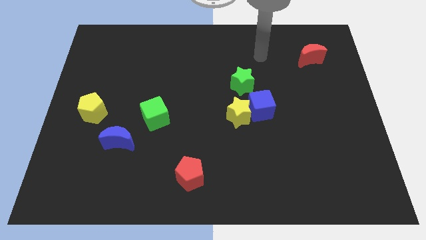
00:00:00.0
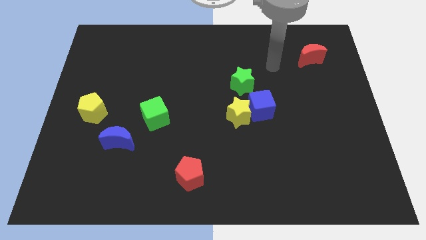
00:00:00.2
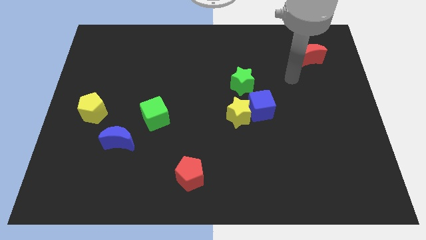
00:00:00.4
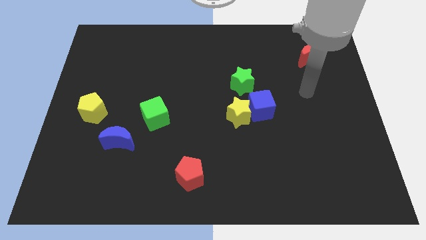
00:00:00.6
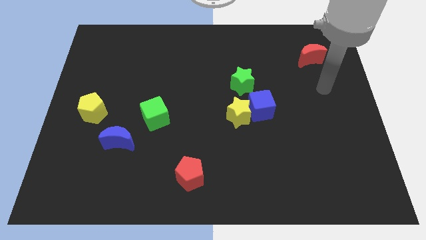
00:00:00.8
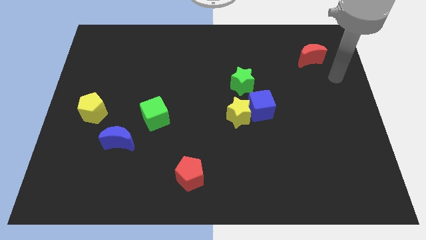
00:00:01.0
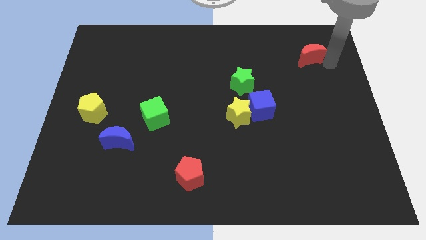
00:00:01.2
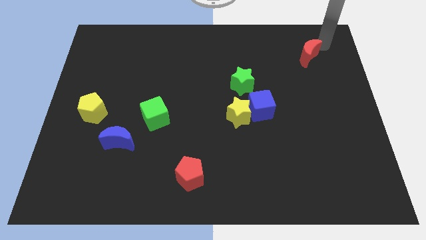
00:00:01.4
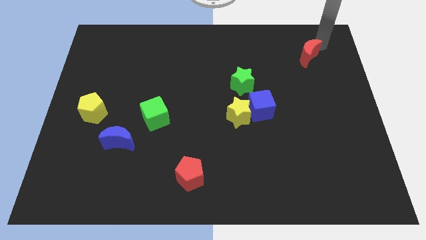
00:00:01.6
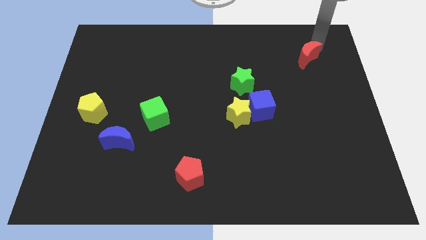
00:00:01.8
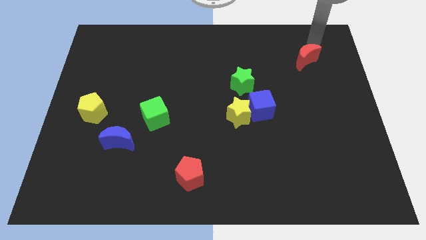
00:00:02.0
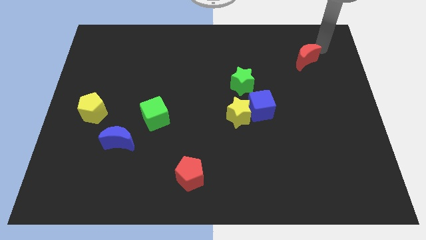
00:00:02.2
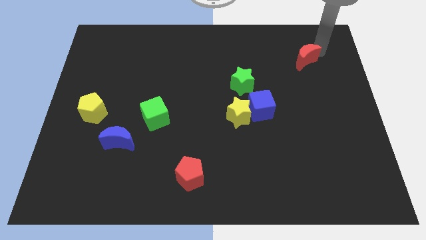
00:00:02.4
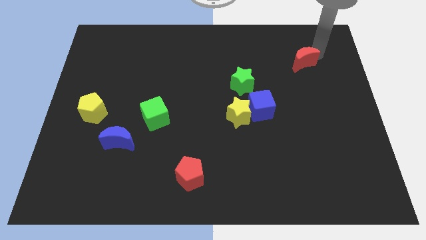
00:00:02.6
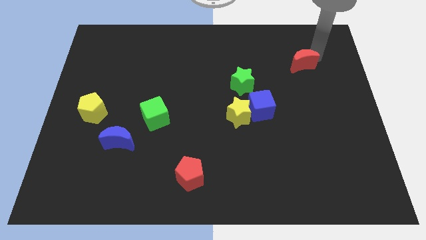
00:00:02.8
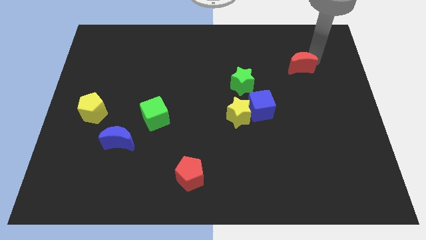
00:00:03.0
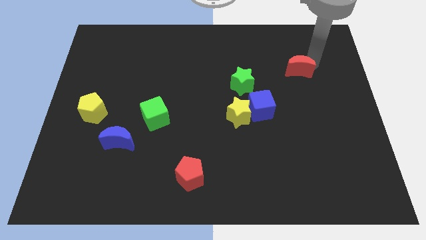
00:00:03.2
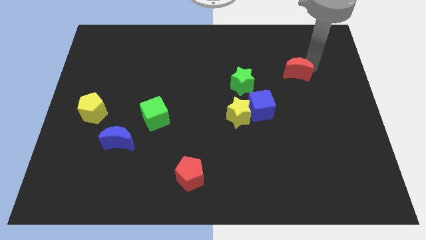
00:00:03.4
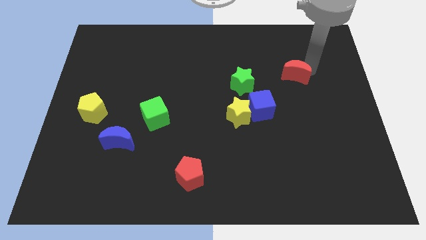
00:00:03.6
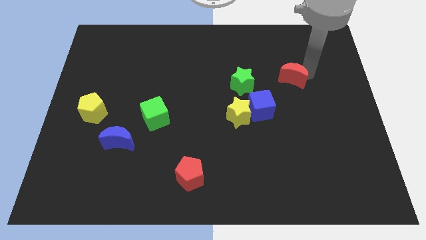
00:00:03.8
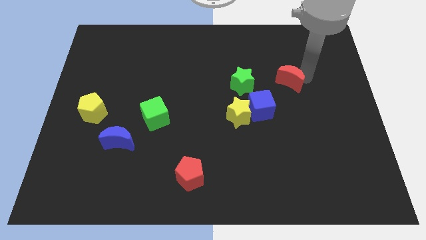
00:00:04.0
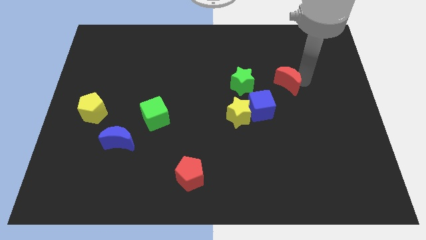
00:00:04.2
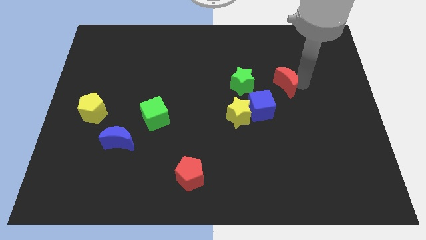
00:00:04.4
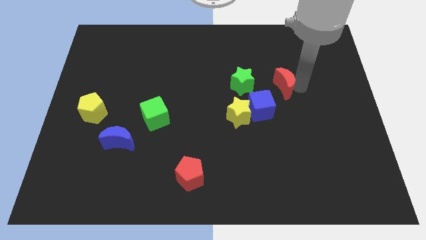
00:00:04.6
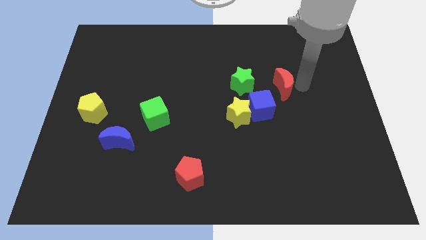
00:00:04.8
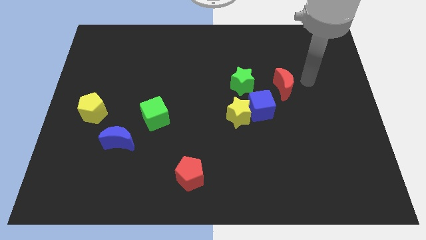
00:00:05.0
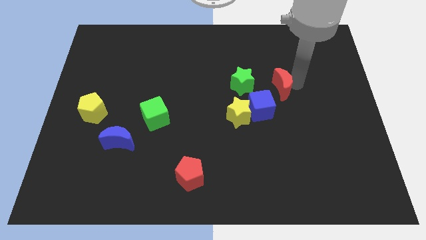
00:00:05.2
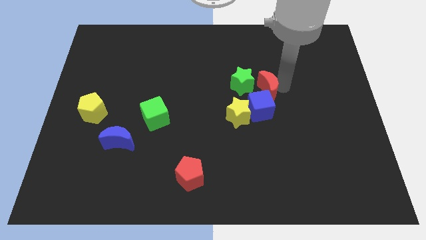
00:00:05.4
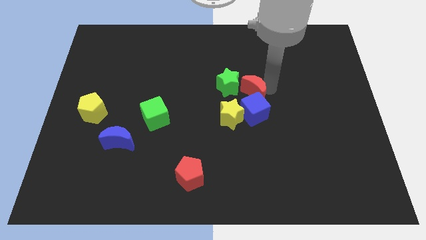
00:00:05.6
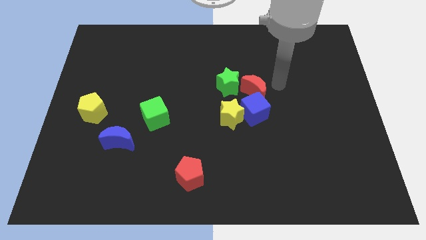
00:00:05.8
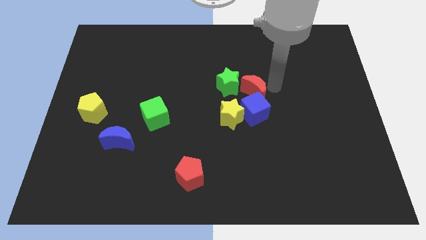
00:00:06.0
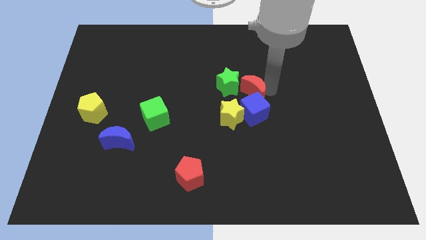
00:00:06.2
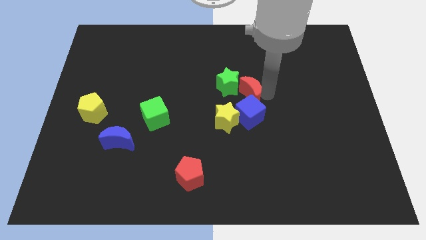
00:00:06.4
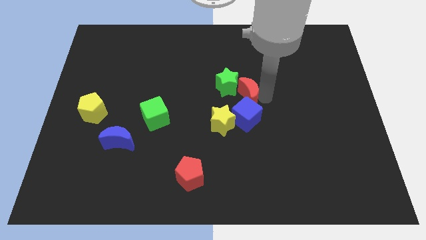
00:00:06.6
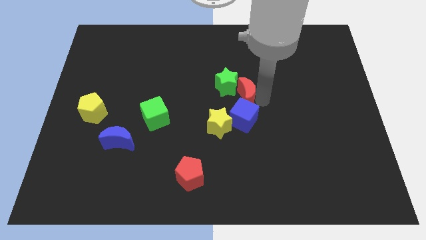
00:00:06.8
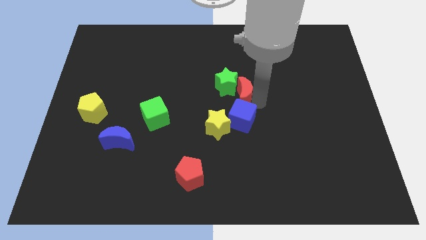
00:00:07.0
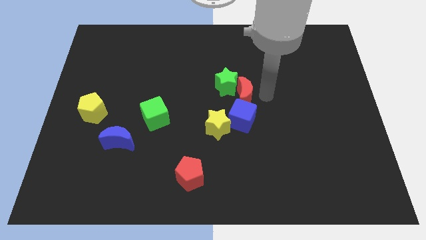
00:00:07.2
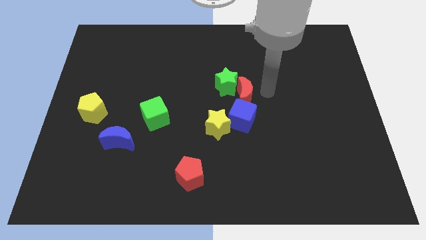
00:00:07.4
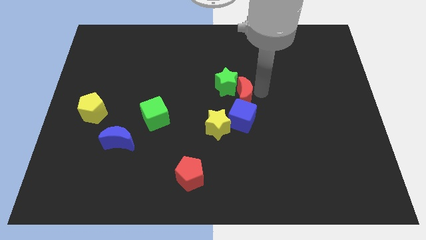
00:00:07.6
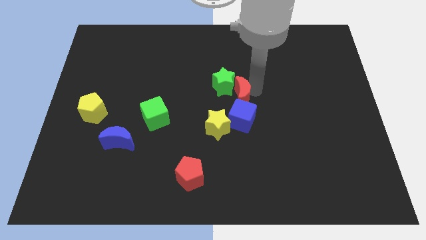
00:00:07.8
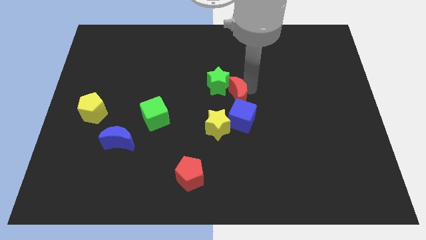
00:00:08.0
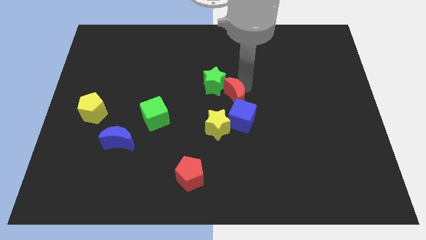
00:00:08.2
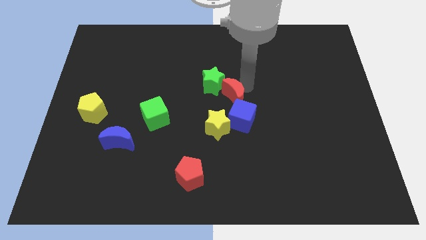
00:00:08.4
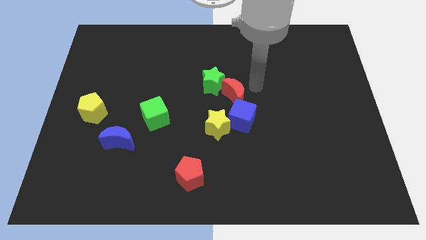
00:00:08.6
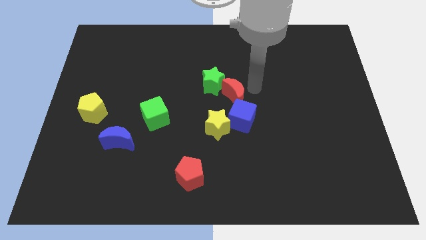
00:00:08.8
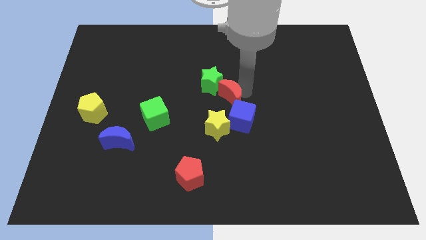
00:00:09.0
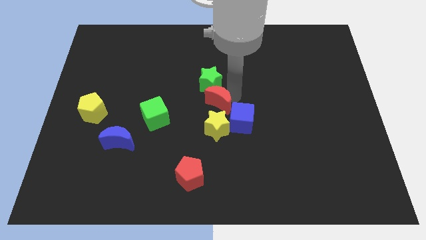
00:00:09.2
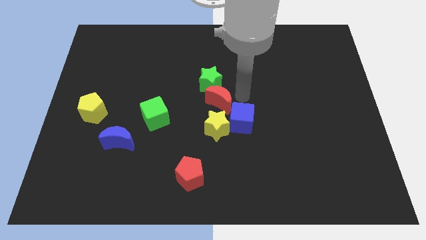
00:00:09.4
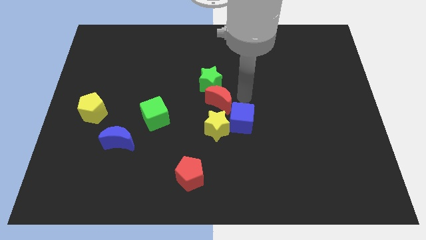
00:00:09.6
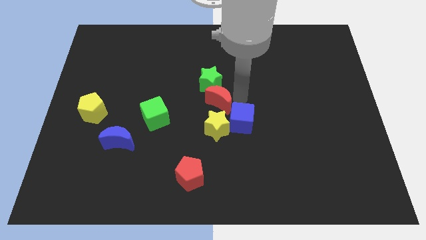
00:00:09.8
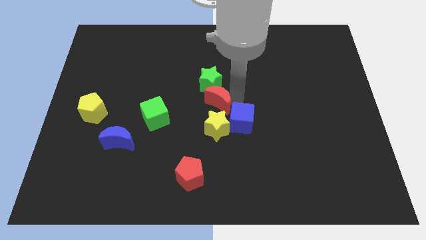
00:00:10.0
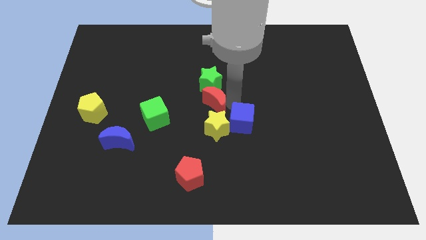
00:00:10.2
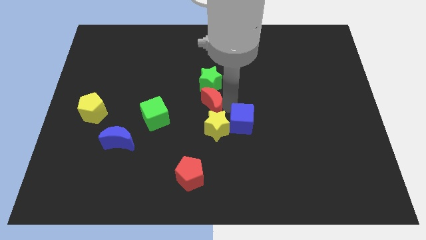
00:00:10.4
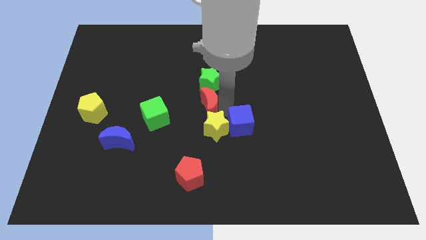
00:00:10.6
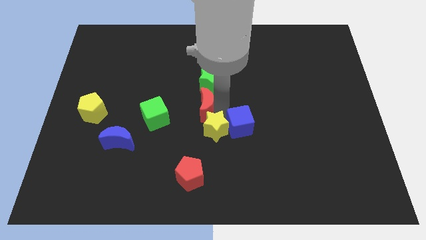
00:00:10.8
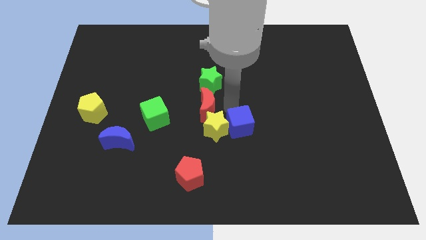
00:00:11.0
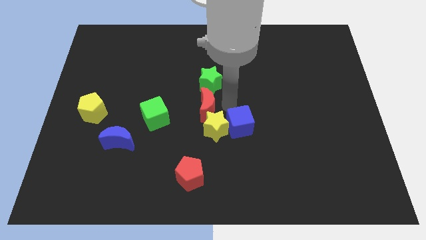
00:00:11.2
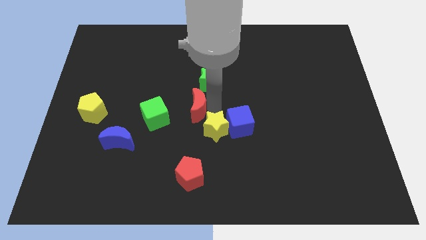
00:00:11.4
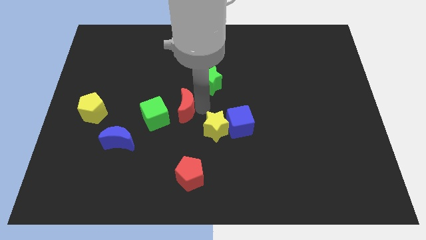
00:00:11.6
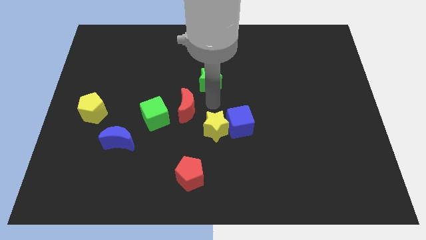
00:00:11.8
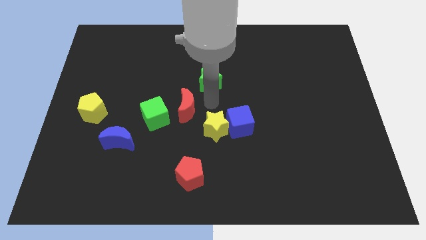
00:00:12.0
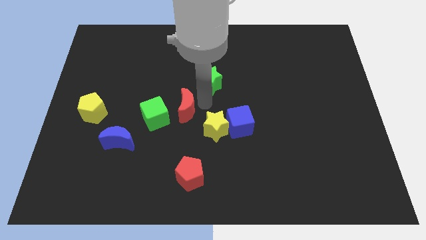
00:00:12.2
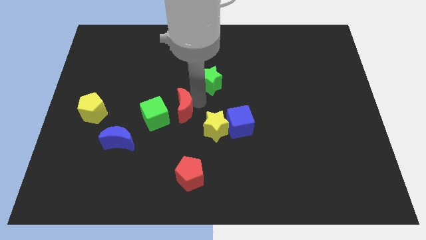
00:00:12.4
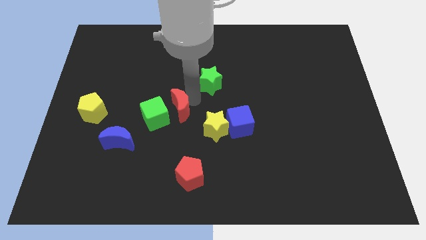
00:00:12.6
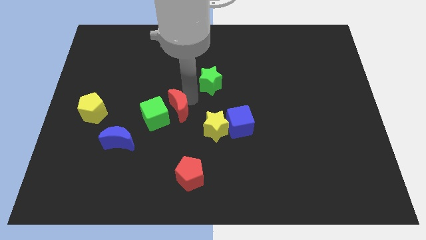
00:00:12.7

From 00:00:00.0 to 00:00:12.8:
push the red moon next to the green cube
